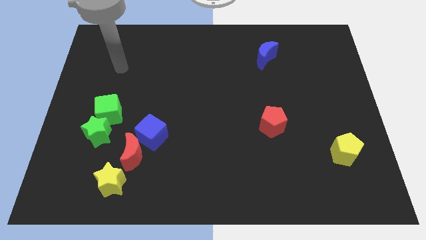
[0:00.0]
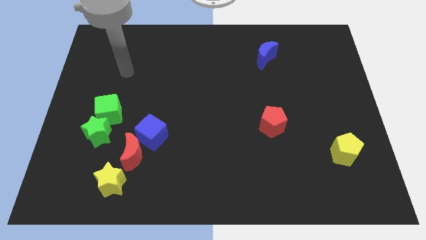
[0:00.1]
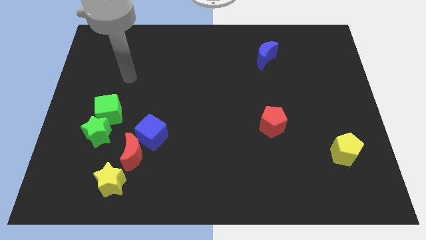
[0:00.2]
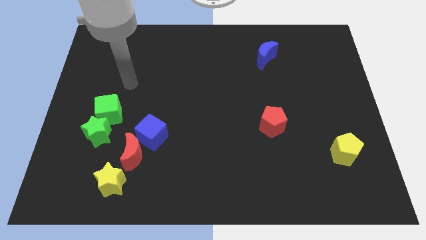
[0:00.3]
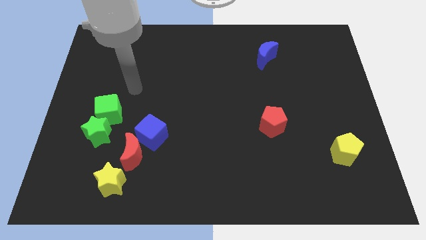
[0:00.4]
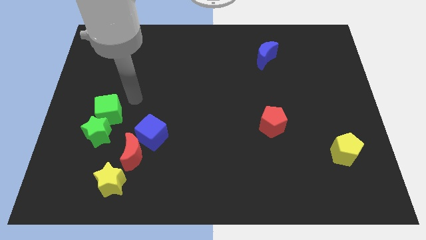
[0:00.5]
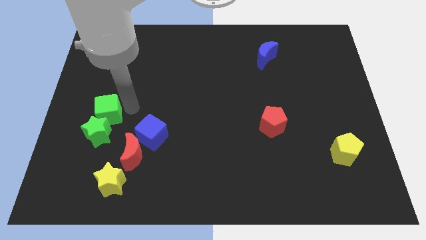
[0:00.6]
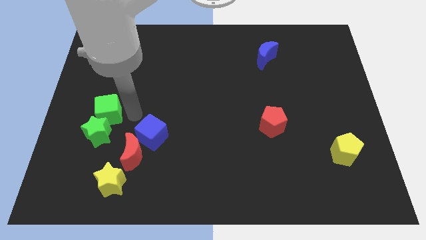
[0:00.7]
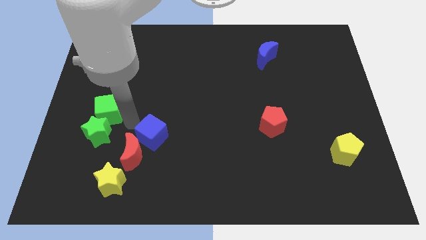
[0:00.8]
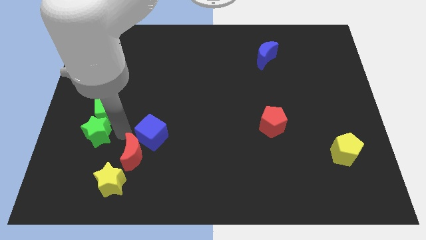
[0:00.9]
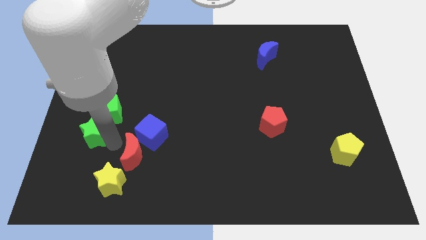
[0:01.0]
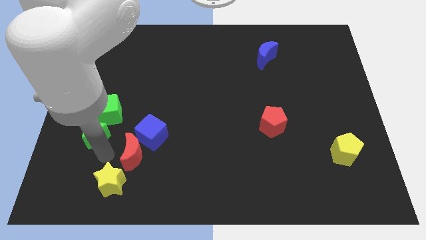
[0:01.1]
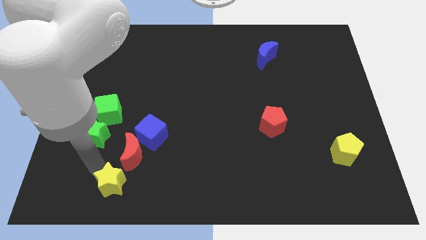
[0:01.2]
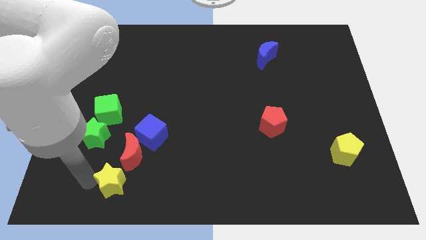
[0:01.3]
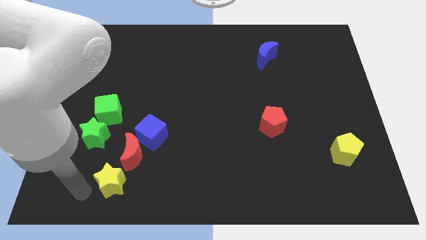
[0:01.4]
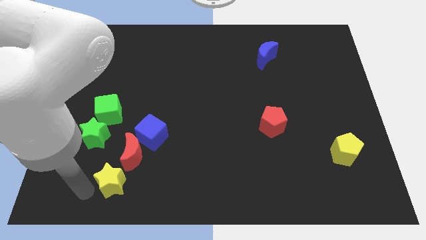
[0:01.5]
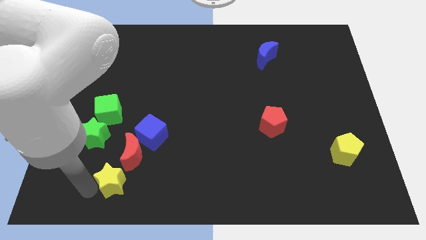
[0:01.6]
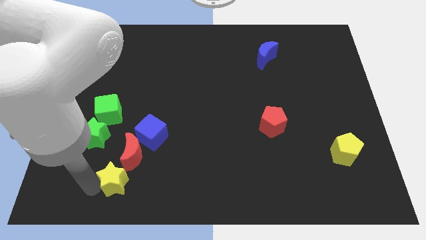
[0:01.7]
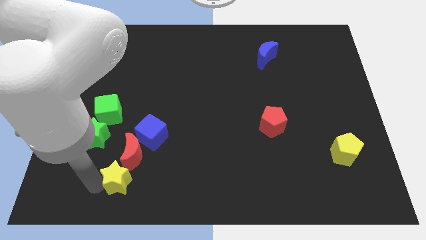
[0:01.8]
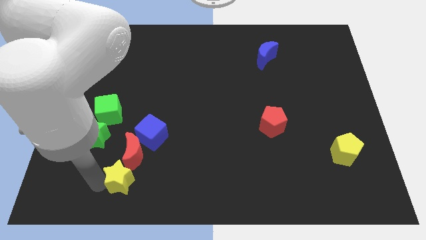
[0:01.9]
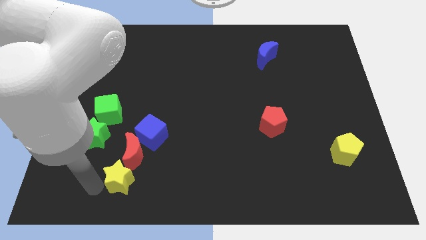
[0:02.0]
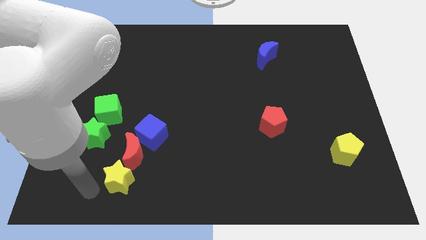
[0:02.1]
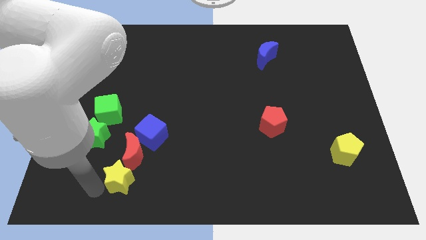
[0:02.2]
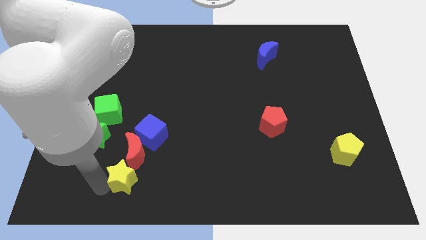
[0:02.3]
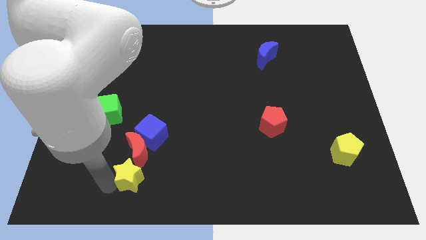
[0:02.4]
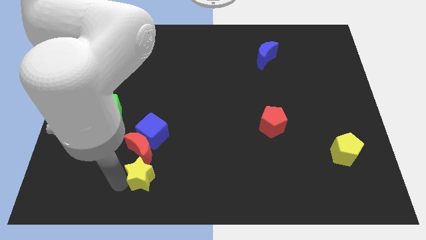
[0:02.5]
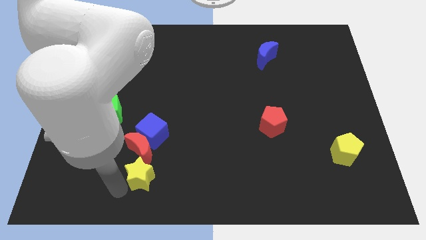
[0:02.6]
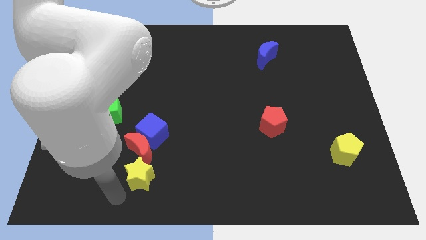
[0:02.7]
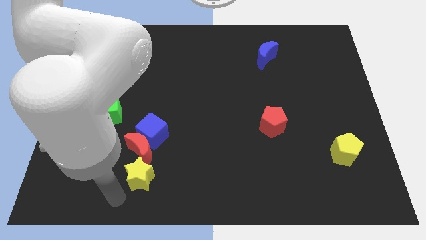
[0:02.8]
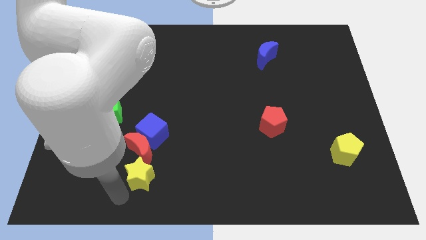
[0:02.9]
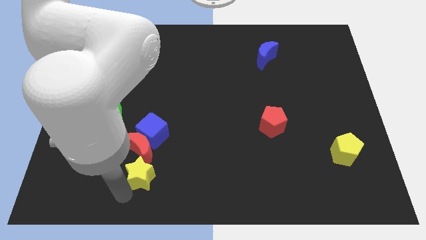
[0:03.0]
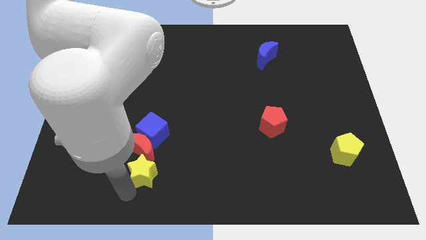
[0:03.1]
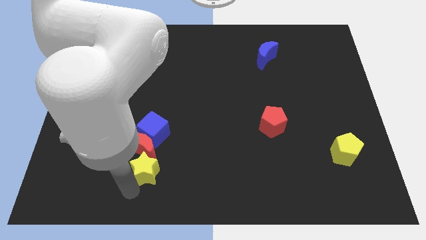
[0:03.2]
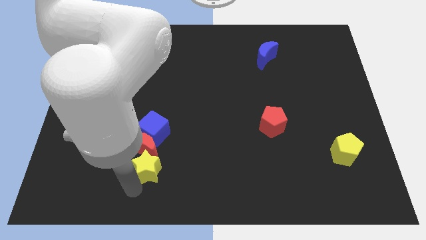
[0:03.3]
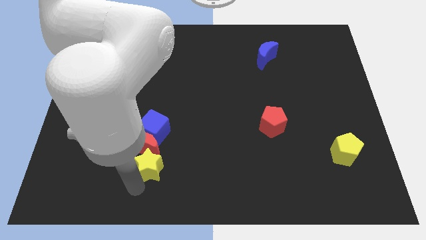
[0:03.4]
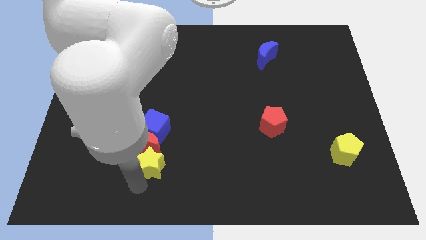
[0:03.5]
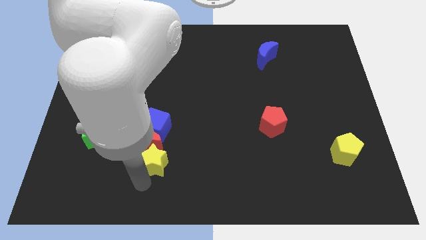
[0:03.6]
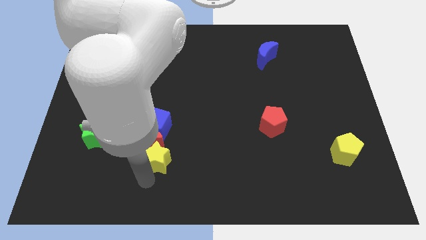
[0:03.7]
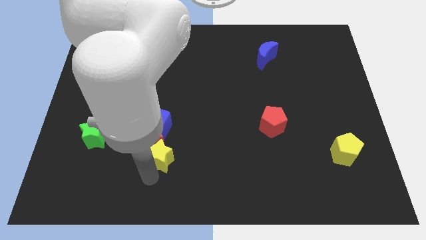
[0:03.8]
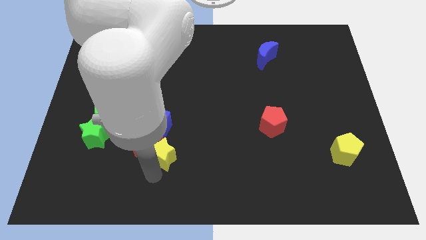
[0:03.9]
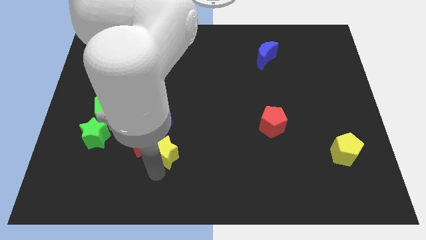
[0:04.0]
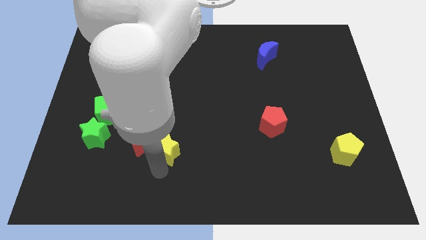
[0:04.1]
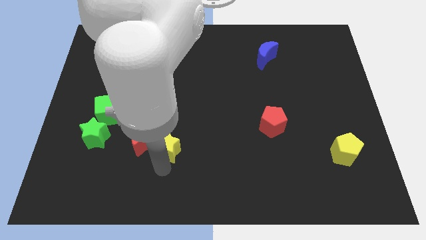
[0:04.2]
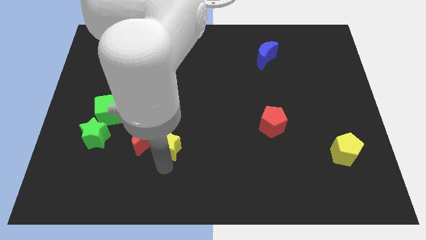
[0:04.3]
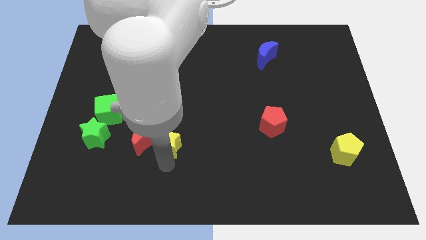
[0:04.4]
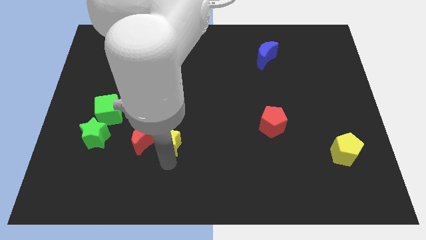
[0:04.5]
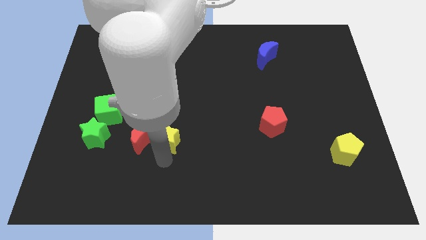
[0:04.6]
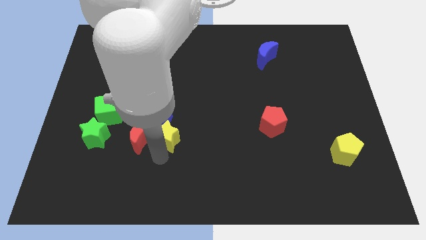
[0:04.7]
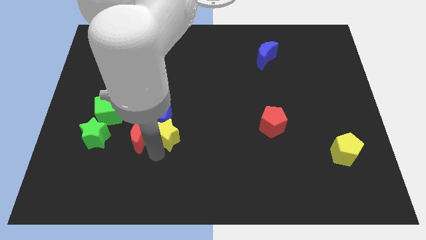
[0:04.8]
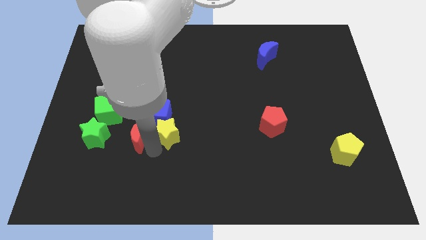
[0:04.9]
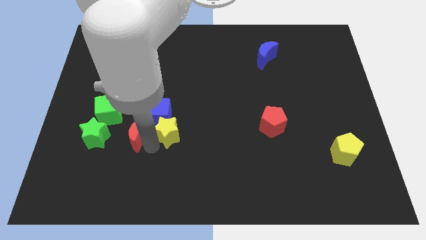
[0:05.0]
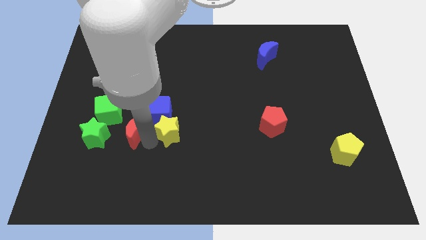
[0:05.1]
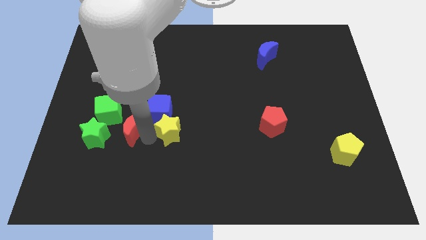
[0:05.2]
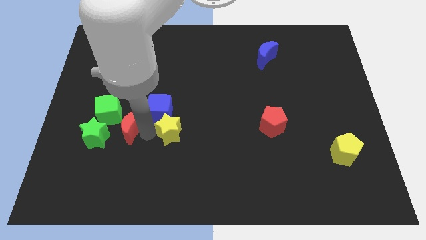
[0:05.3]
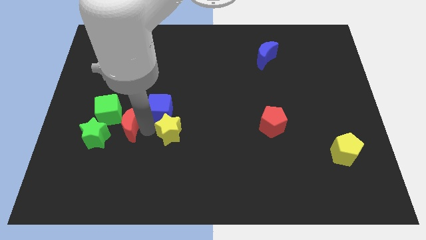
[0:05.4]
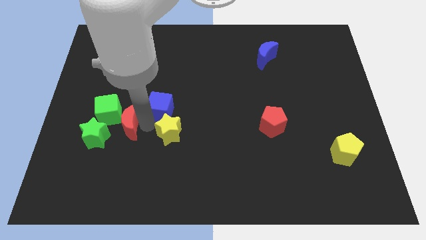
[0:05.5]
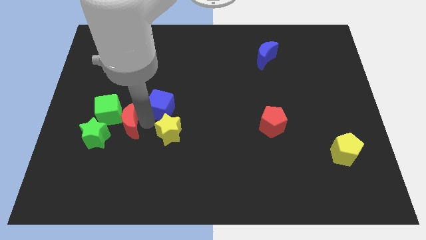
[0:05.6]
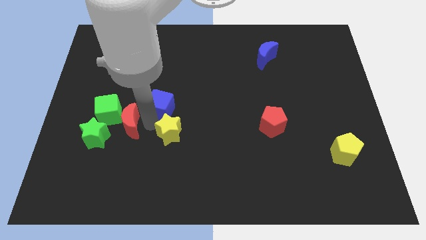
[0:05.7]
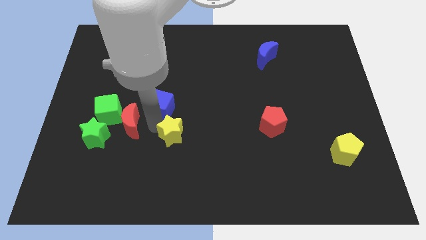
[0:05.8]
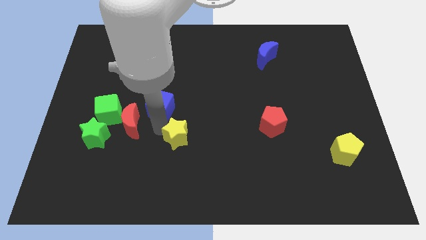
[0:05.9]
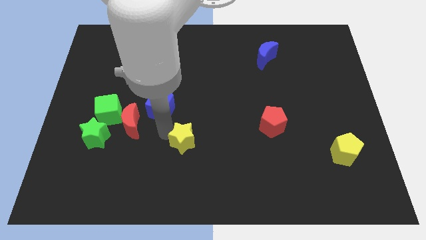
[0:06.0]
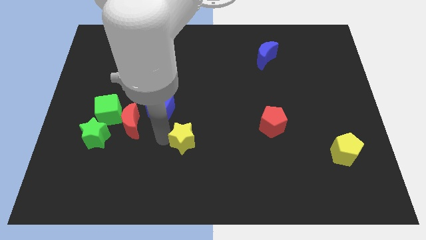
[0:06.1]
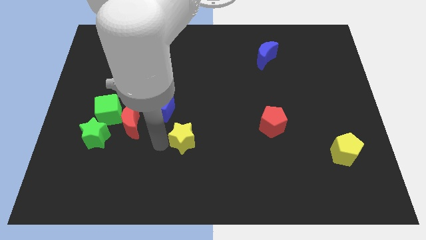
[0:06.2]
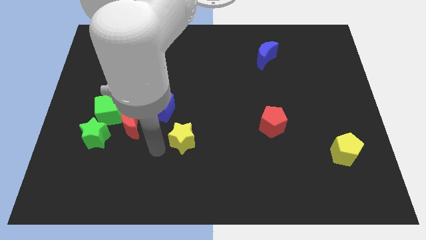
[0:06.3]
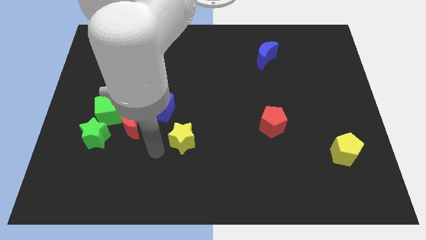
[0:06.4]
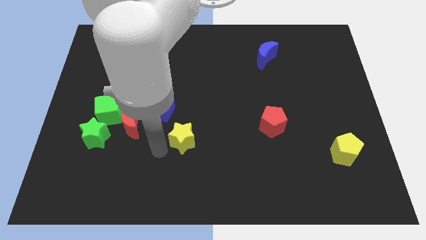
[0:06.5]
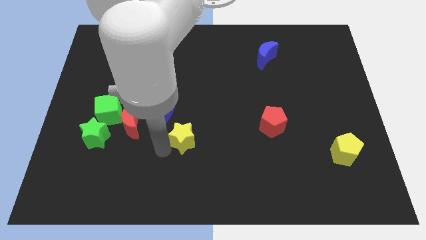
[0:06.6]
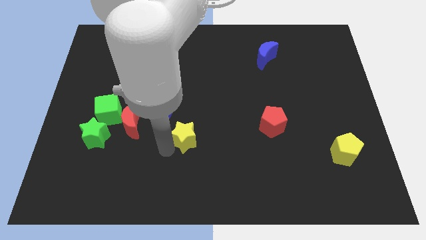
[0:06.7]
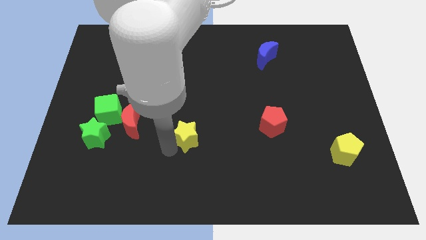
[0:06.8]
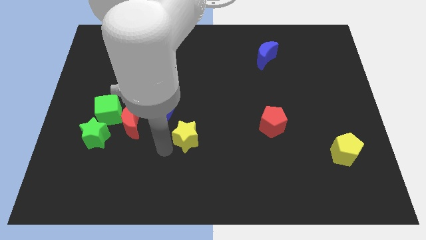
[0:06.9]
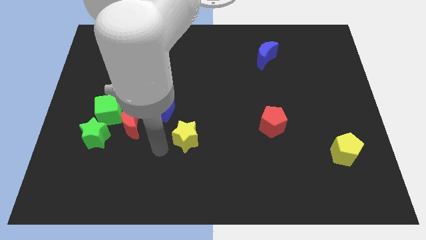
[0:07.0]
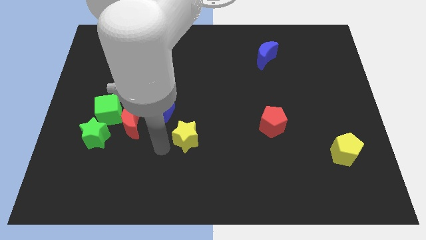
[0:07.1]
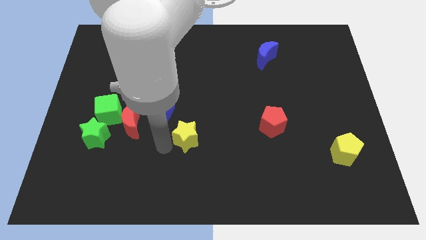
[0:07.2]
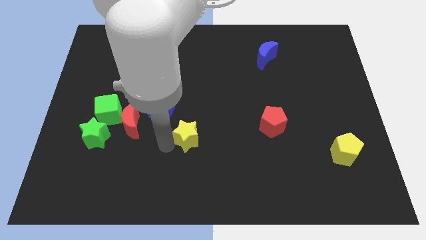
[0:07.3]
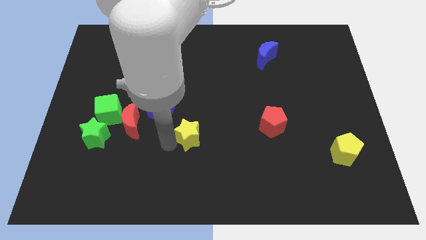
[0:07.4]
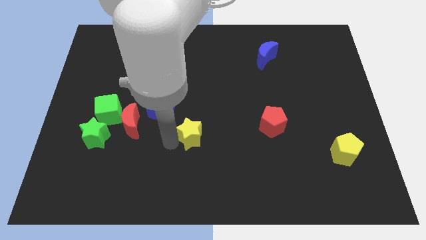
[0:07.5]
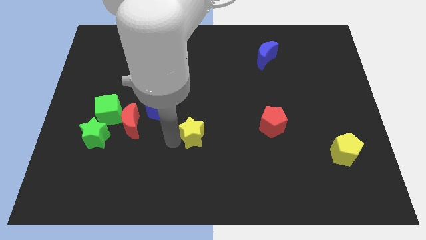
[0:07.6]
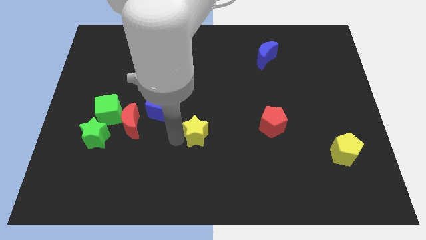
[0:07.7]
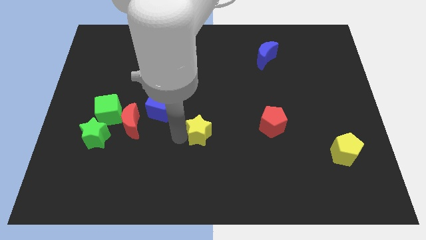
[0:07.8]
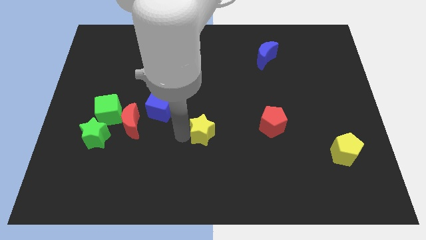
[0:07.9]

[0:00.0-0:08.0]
slide the yellow star to the left of the red pentagon
